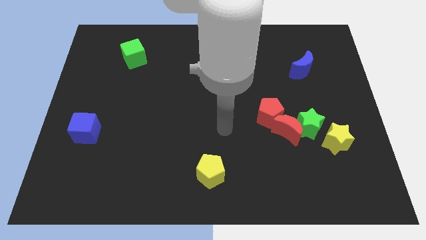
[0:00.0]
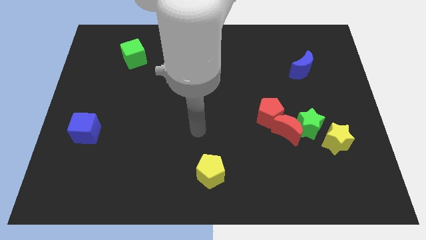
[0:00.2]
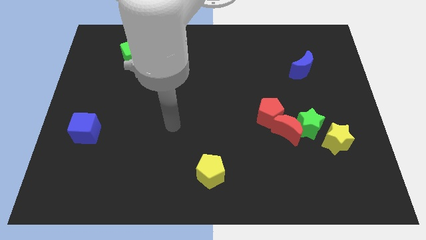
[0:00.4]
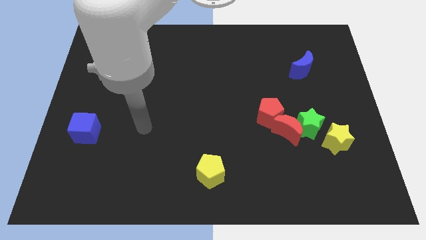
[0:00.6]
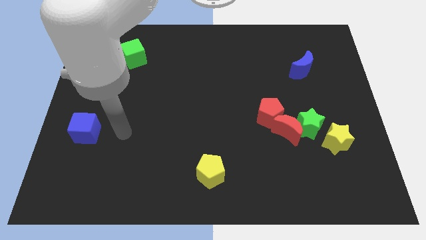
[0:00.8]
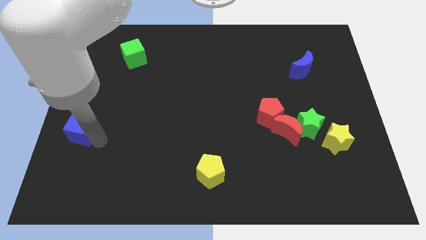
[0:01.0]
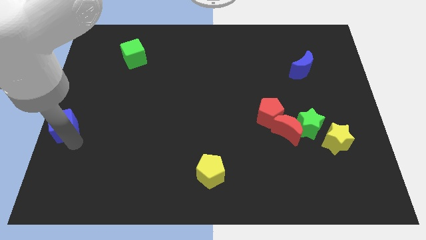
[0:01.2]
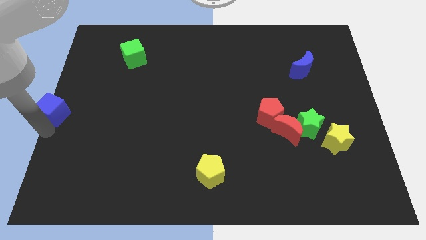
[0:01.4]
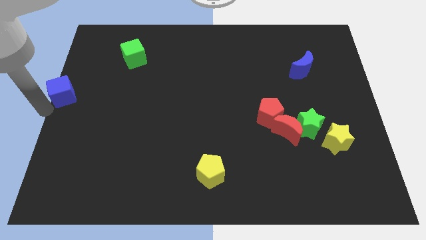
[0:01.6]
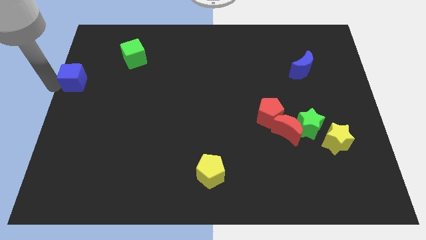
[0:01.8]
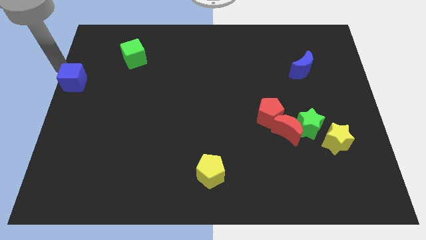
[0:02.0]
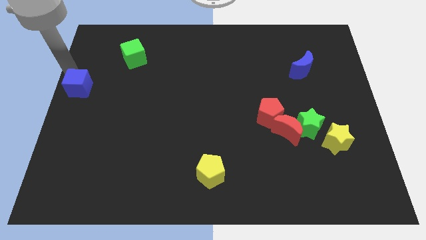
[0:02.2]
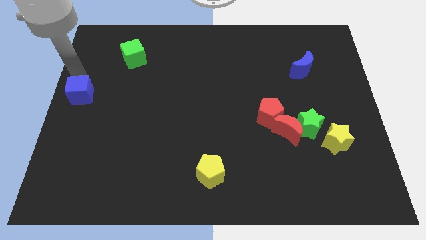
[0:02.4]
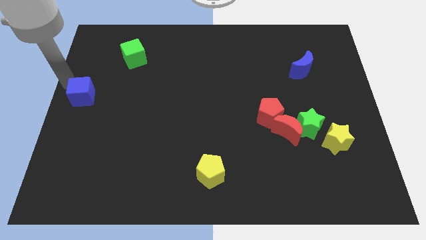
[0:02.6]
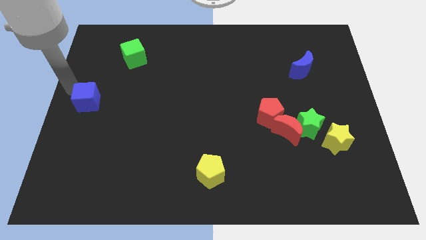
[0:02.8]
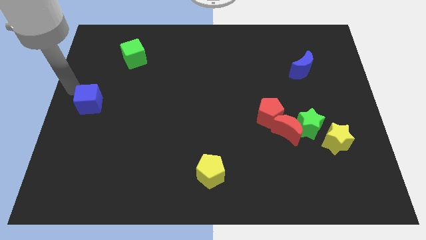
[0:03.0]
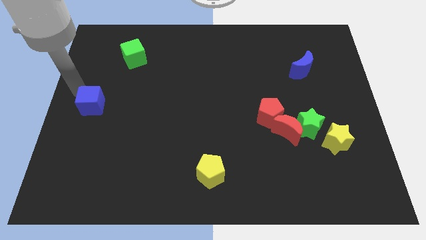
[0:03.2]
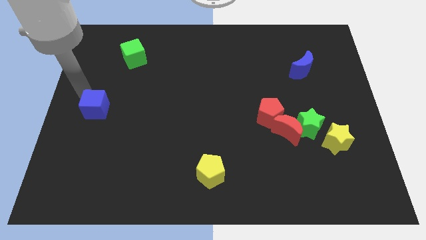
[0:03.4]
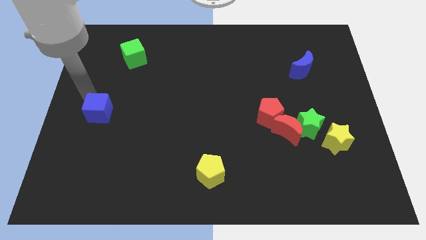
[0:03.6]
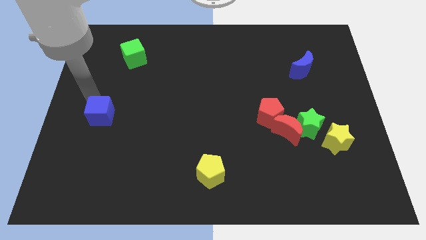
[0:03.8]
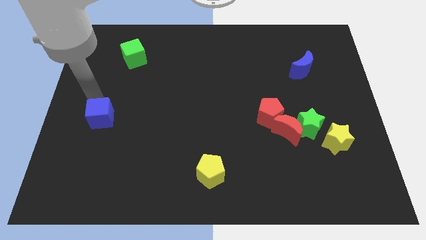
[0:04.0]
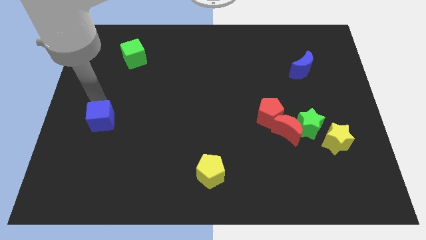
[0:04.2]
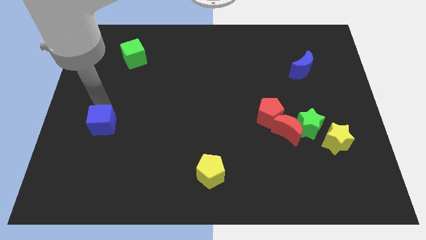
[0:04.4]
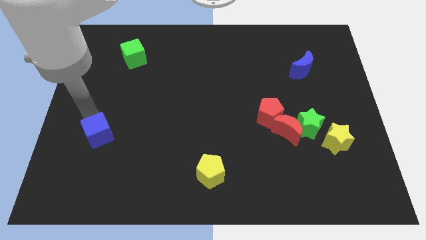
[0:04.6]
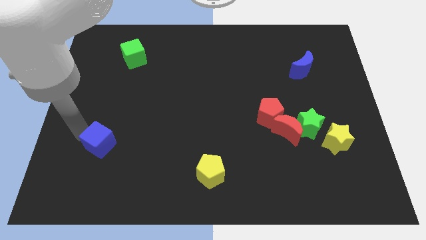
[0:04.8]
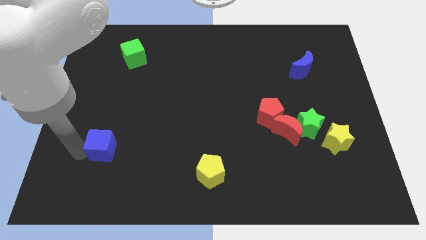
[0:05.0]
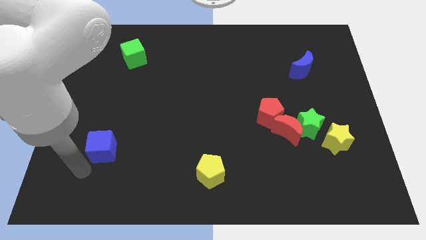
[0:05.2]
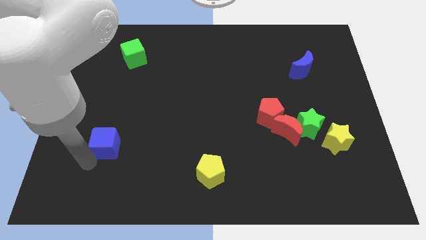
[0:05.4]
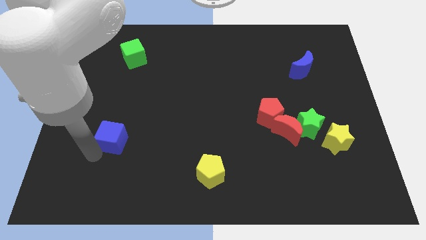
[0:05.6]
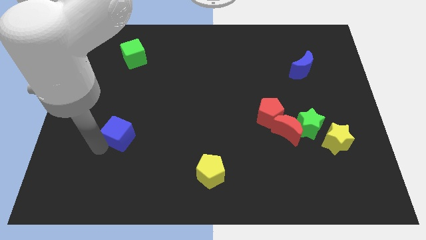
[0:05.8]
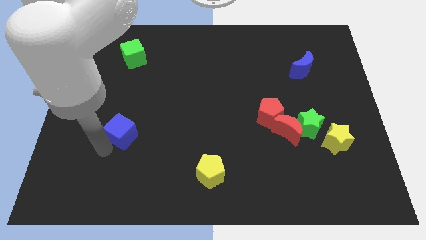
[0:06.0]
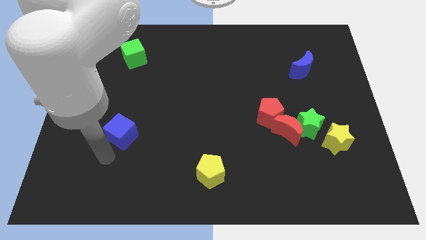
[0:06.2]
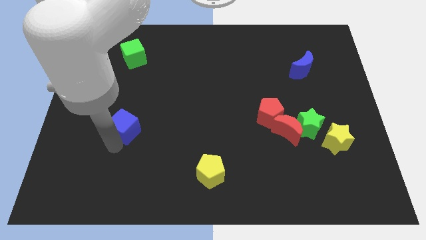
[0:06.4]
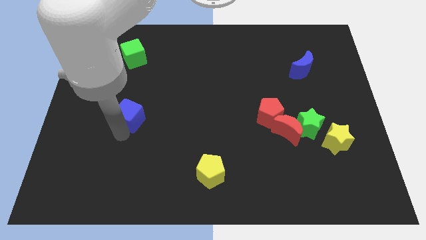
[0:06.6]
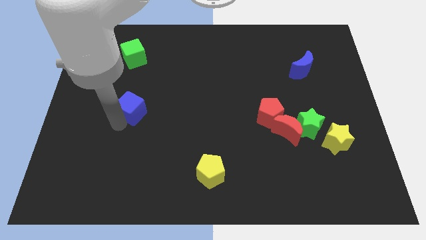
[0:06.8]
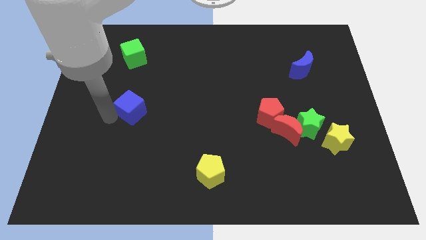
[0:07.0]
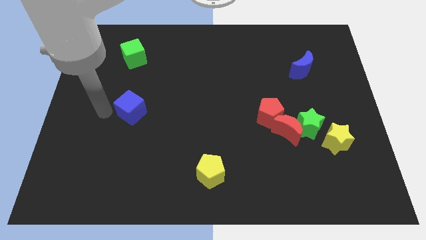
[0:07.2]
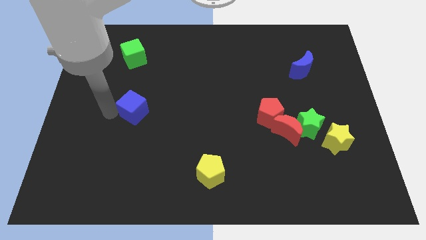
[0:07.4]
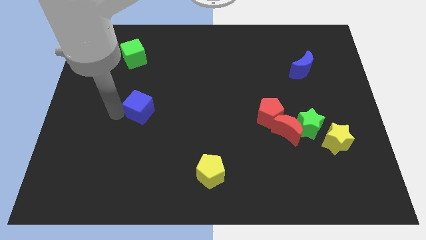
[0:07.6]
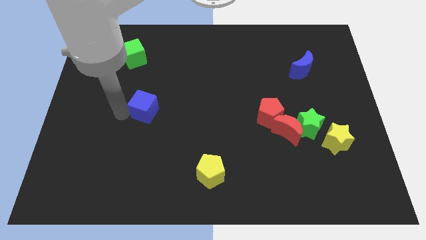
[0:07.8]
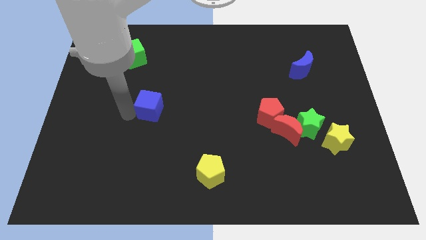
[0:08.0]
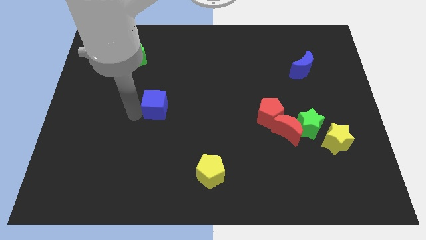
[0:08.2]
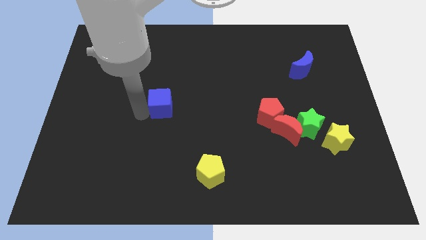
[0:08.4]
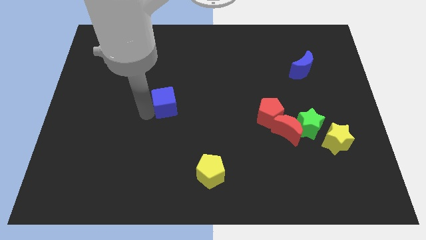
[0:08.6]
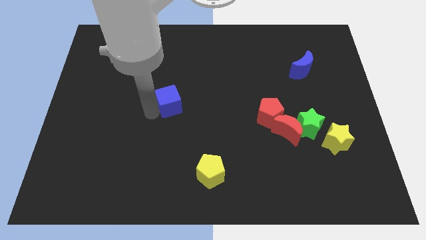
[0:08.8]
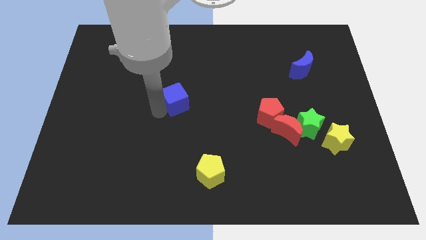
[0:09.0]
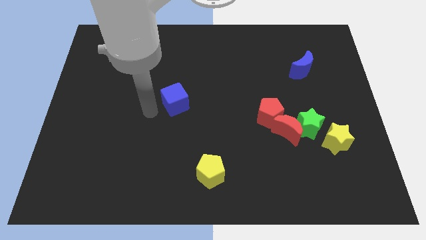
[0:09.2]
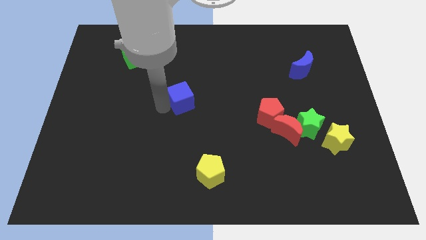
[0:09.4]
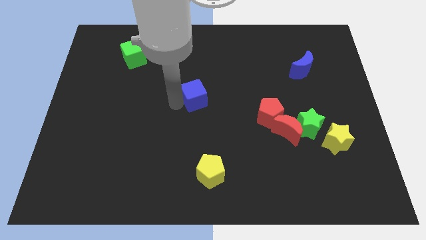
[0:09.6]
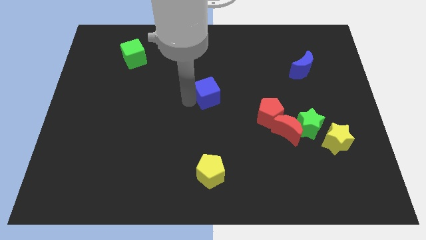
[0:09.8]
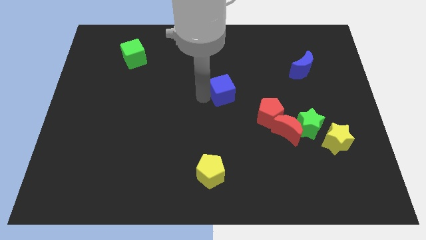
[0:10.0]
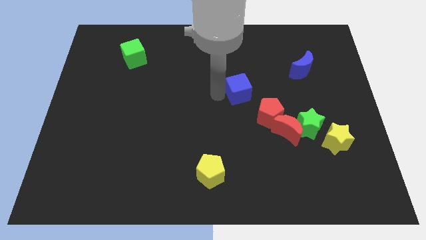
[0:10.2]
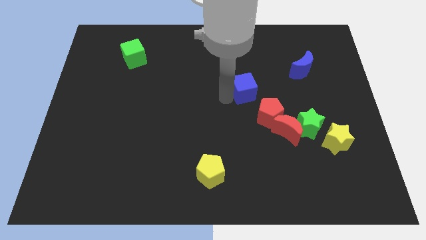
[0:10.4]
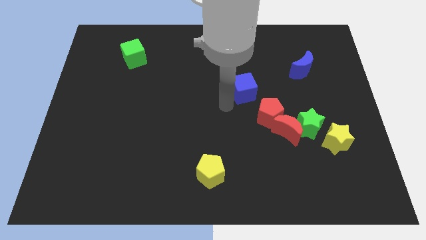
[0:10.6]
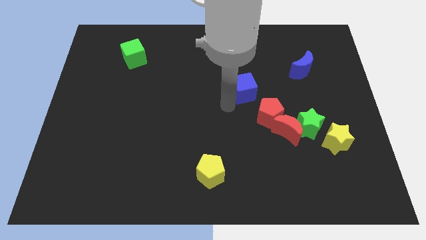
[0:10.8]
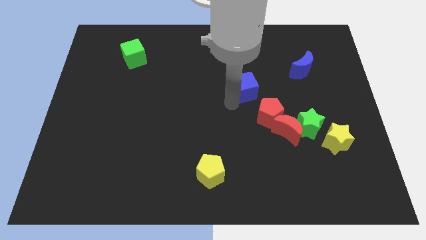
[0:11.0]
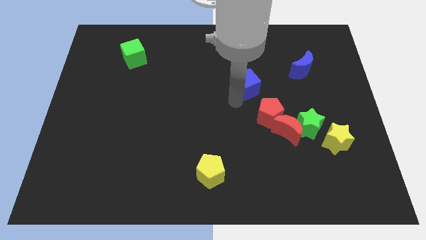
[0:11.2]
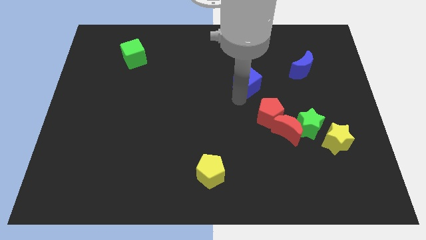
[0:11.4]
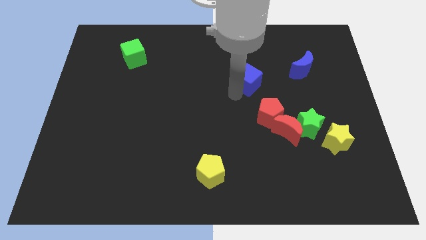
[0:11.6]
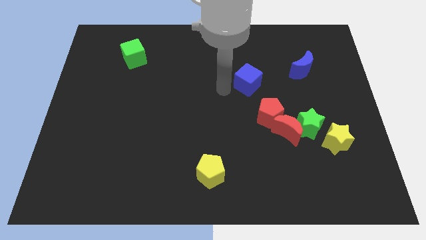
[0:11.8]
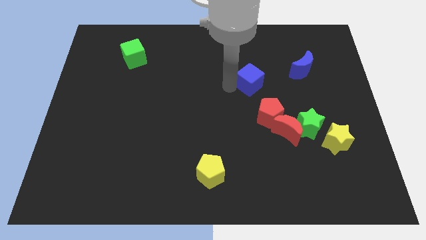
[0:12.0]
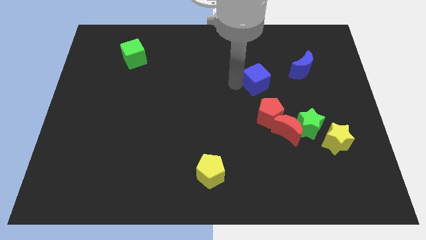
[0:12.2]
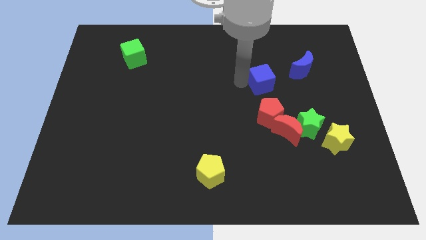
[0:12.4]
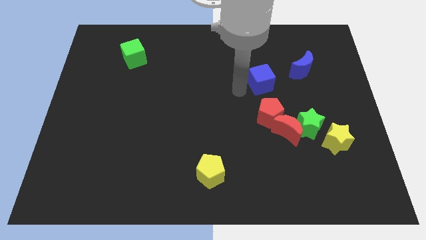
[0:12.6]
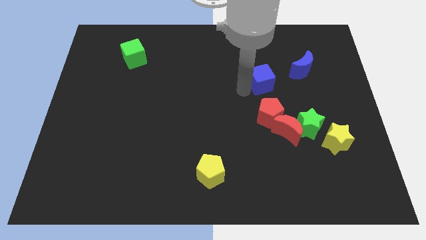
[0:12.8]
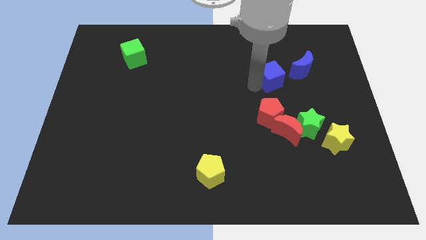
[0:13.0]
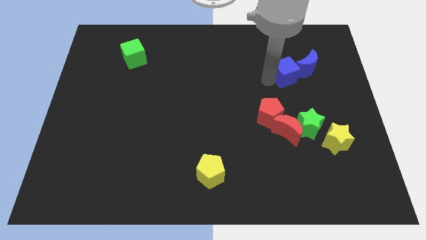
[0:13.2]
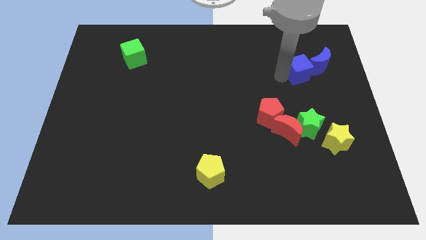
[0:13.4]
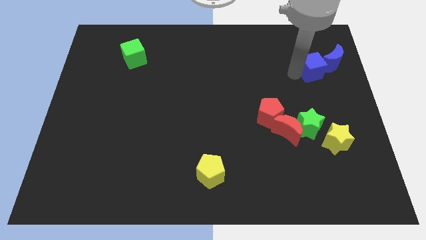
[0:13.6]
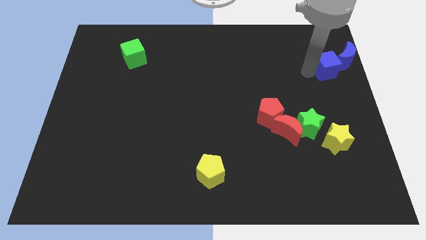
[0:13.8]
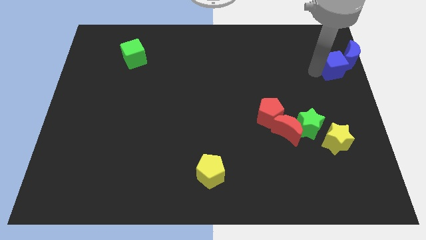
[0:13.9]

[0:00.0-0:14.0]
move the blue cube towards the blue moon

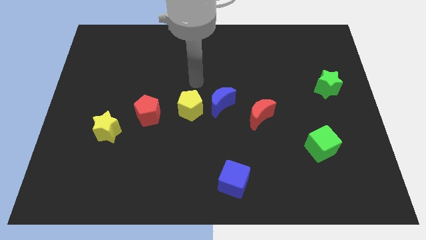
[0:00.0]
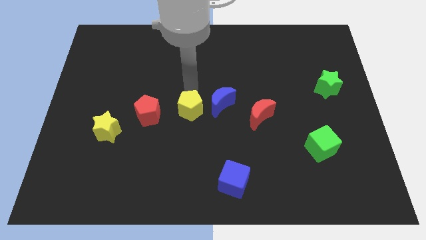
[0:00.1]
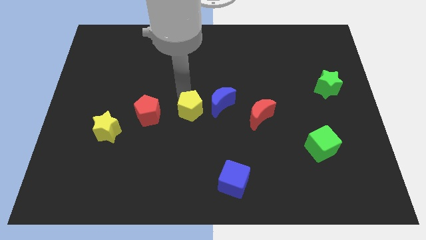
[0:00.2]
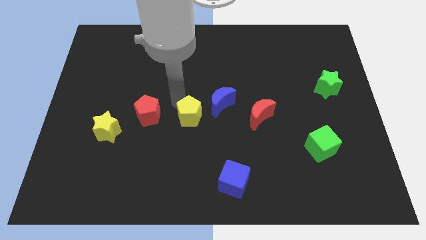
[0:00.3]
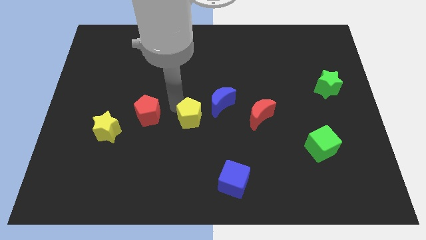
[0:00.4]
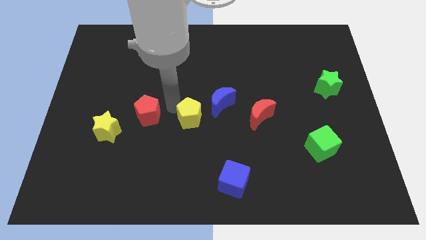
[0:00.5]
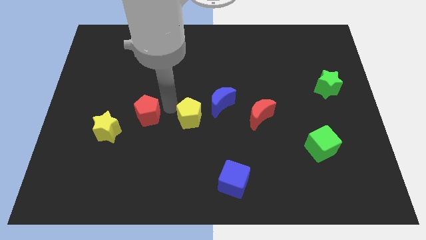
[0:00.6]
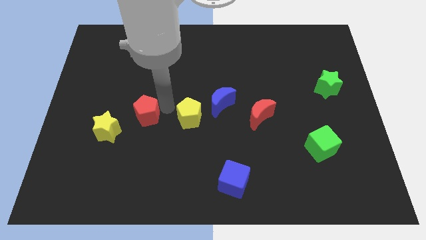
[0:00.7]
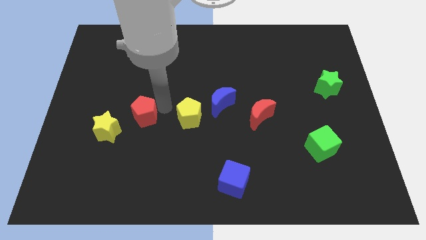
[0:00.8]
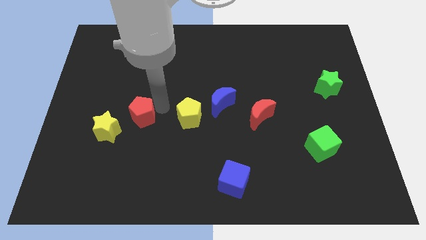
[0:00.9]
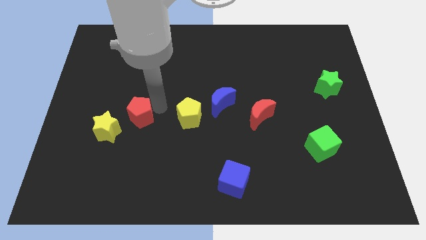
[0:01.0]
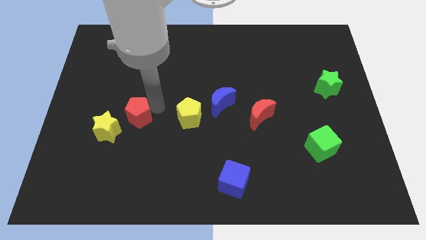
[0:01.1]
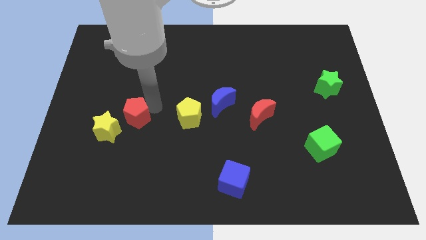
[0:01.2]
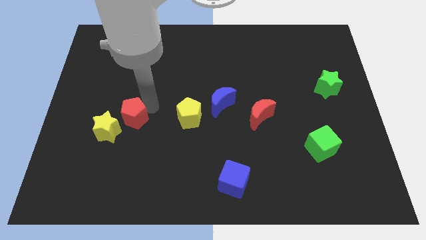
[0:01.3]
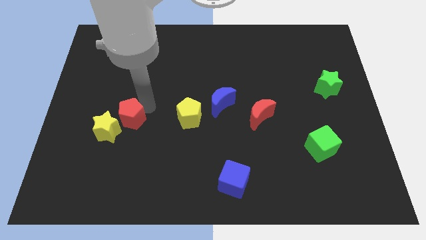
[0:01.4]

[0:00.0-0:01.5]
push the red pentagon close to the yellow star
